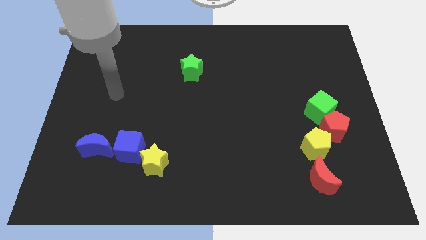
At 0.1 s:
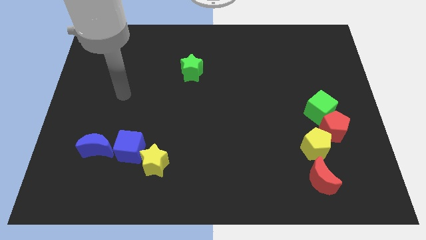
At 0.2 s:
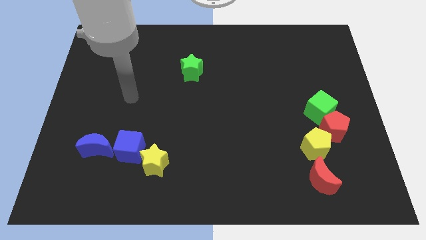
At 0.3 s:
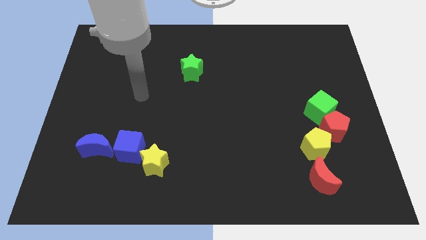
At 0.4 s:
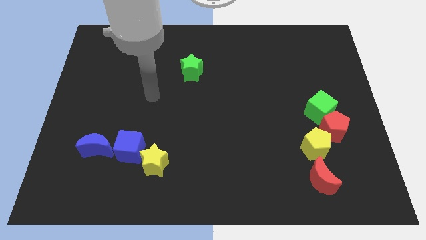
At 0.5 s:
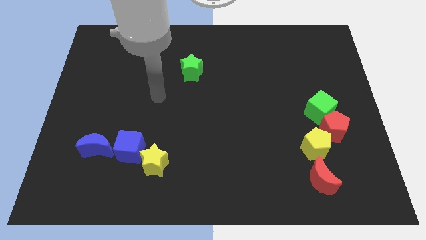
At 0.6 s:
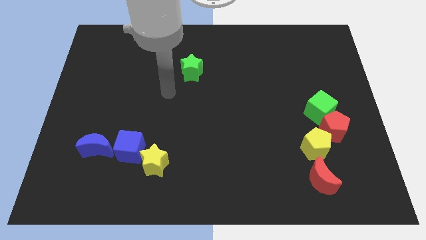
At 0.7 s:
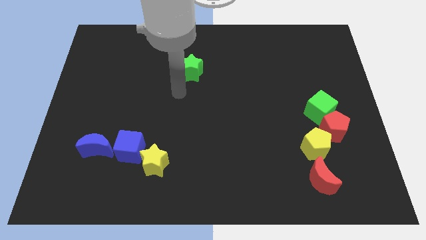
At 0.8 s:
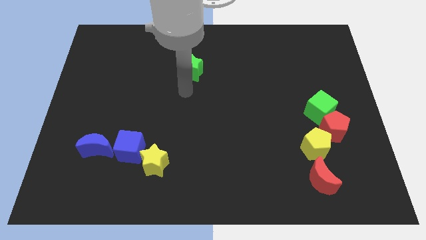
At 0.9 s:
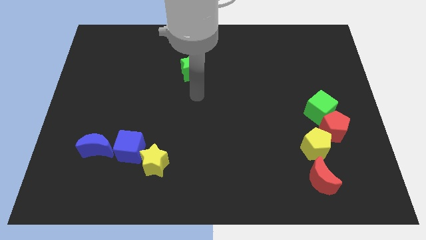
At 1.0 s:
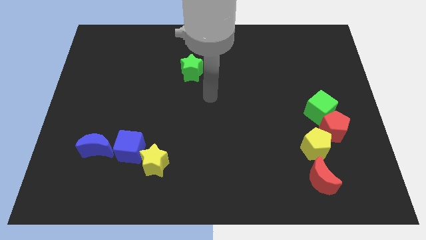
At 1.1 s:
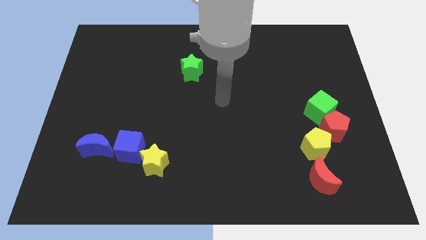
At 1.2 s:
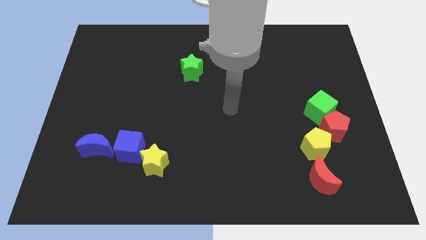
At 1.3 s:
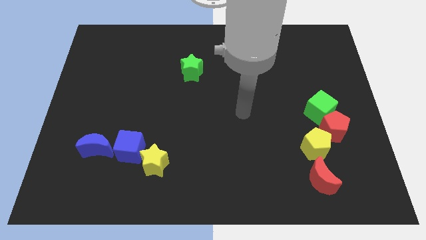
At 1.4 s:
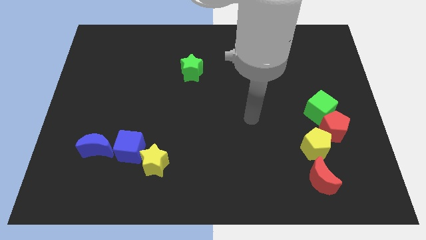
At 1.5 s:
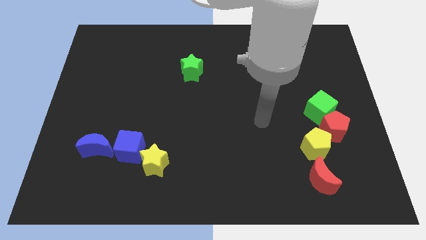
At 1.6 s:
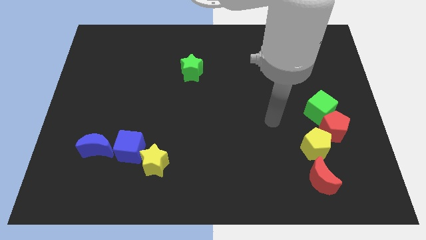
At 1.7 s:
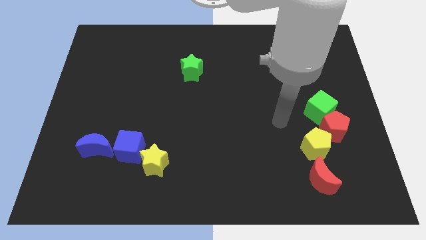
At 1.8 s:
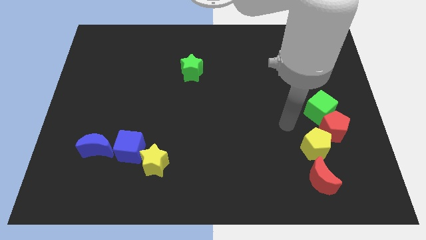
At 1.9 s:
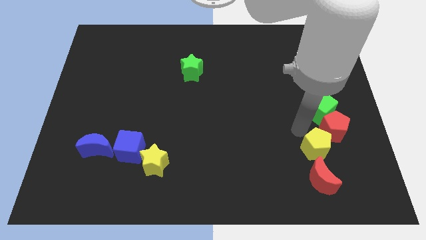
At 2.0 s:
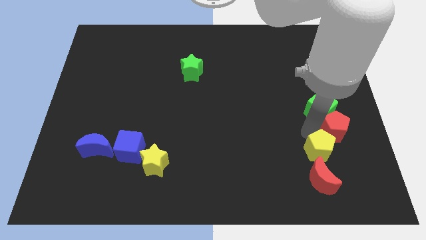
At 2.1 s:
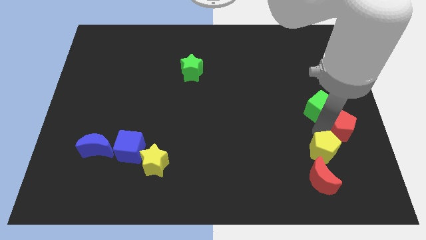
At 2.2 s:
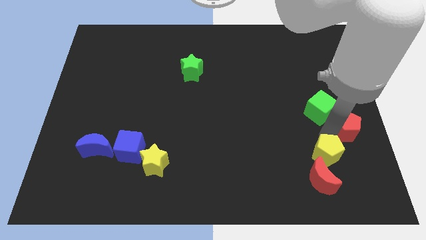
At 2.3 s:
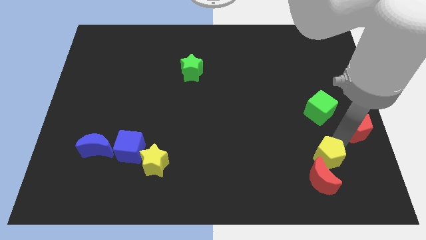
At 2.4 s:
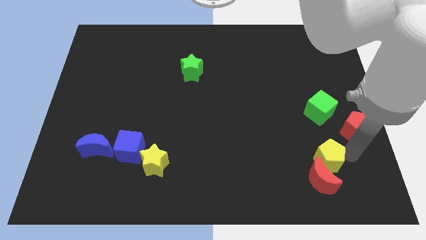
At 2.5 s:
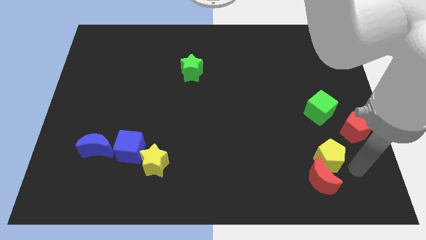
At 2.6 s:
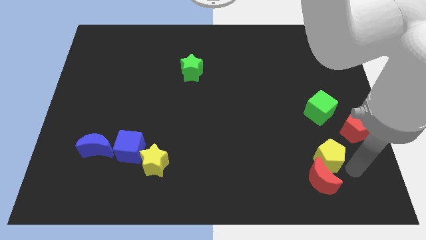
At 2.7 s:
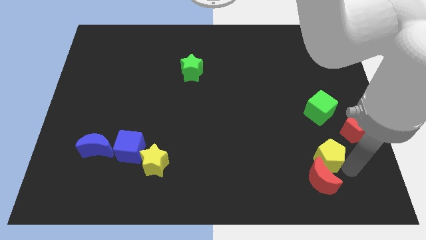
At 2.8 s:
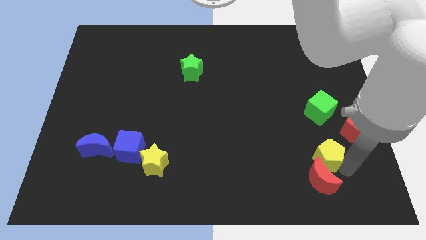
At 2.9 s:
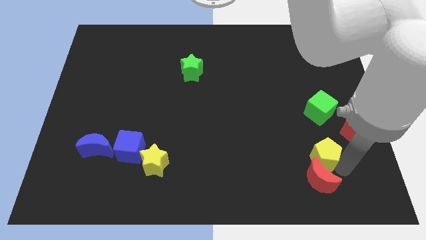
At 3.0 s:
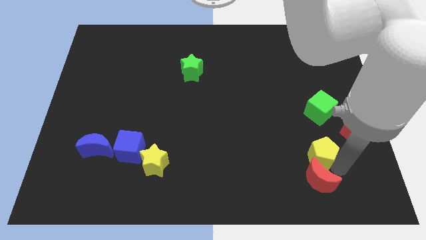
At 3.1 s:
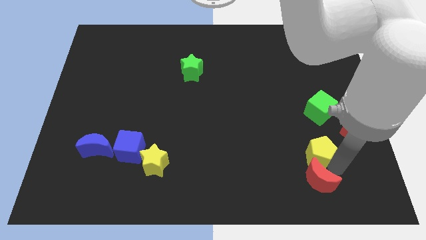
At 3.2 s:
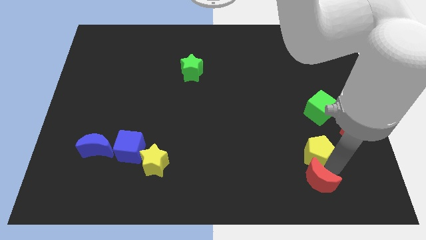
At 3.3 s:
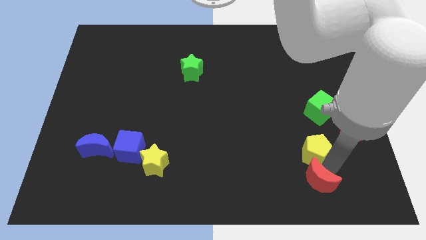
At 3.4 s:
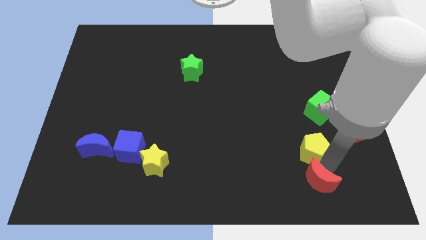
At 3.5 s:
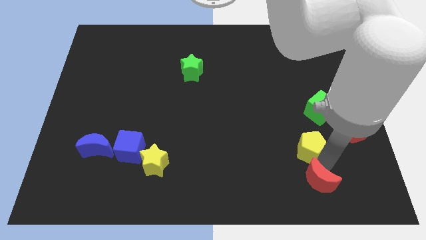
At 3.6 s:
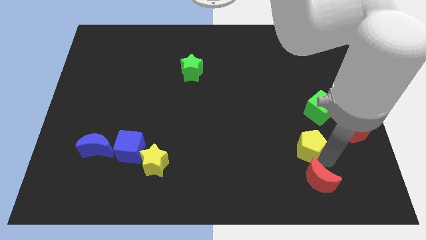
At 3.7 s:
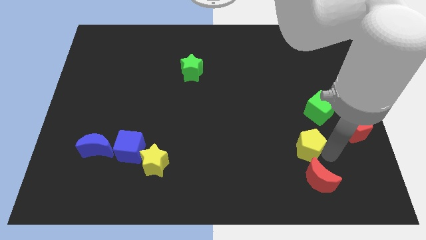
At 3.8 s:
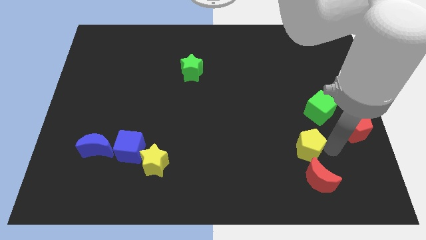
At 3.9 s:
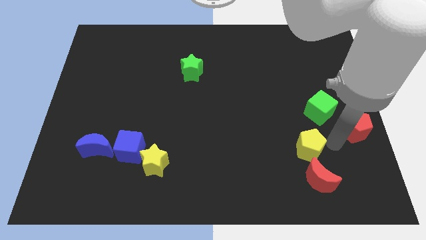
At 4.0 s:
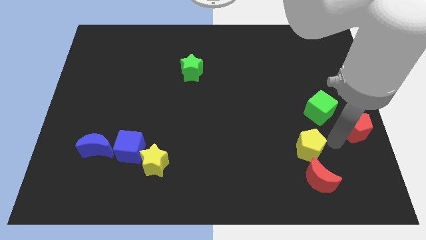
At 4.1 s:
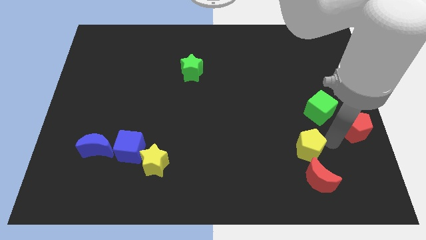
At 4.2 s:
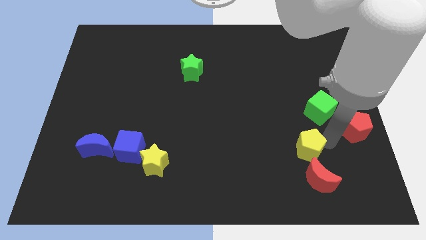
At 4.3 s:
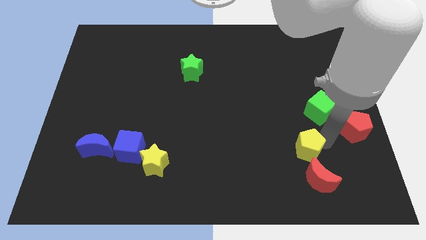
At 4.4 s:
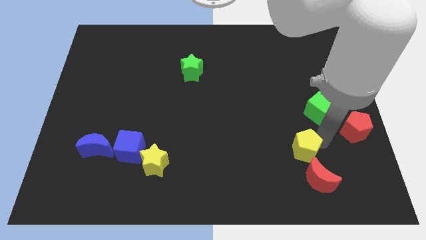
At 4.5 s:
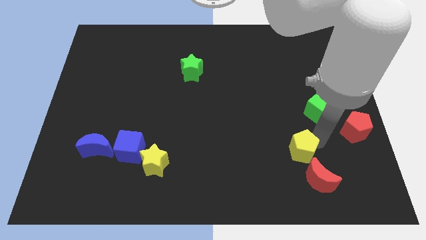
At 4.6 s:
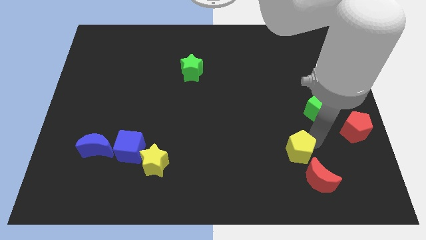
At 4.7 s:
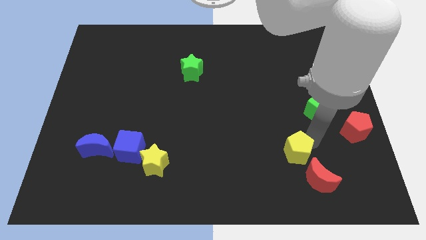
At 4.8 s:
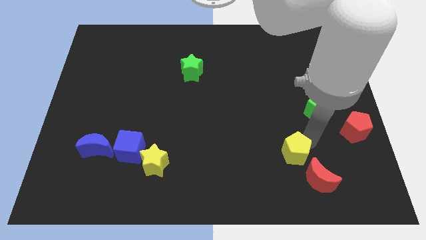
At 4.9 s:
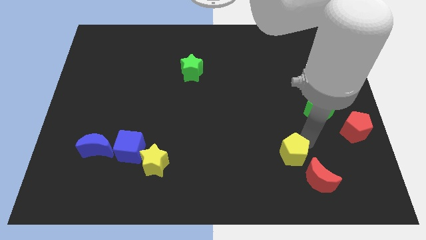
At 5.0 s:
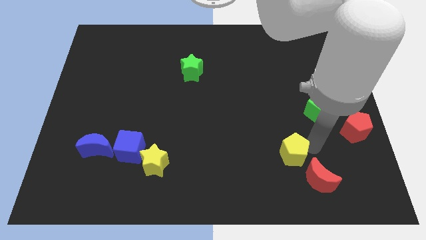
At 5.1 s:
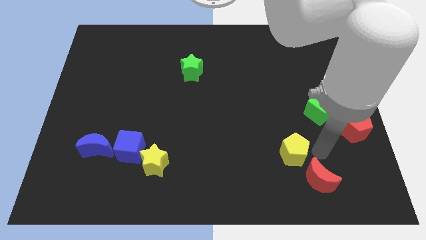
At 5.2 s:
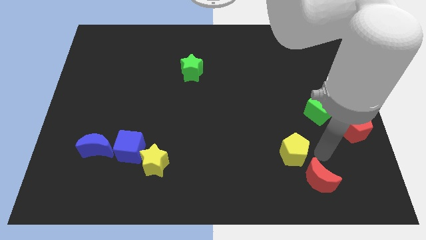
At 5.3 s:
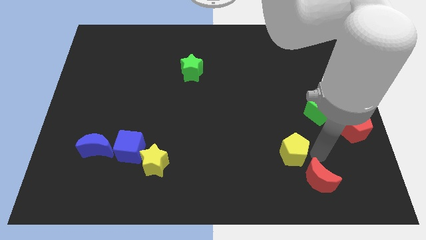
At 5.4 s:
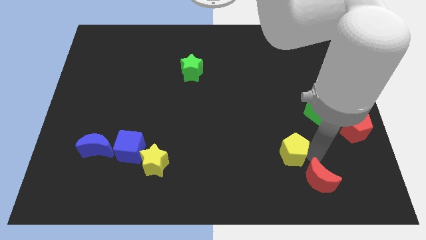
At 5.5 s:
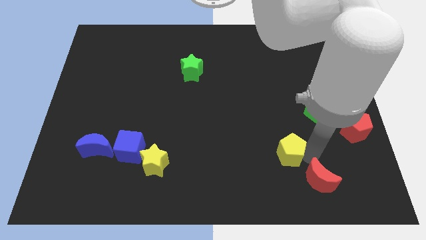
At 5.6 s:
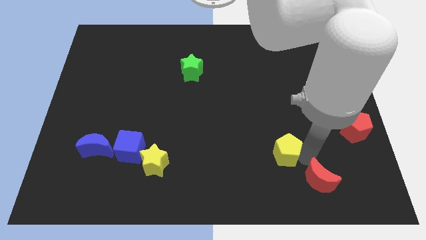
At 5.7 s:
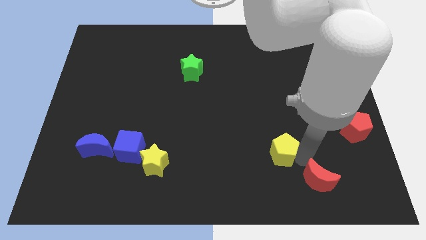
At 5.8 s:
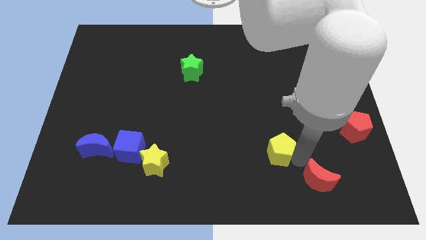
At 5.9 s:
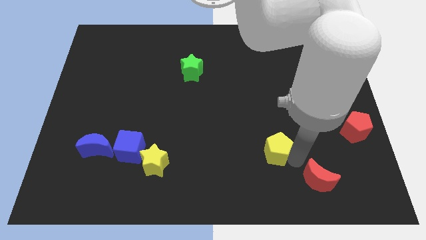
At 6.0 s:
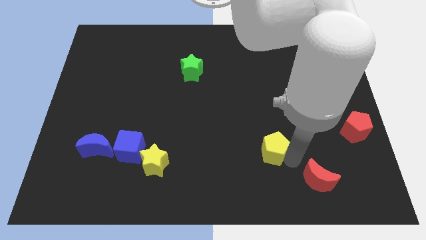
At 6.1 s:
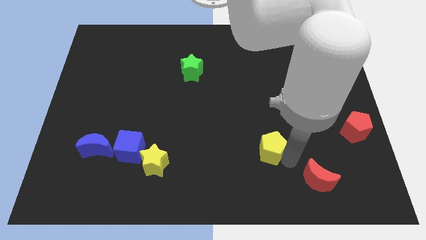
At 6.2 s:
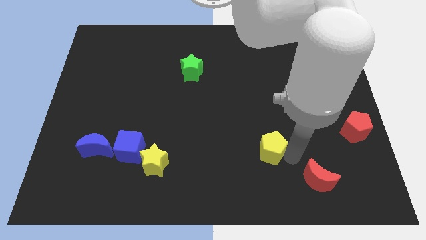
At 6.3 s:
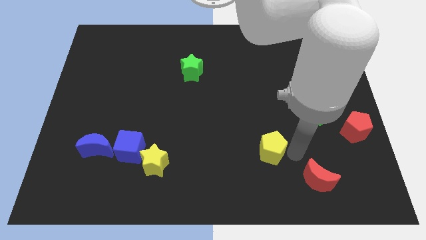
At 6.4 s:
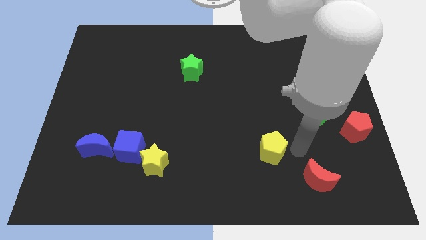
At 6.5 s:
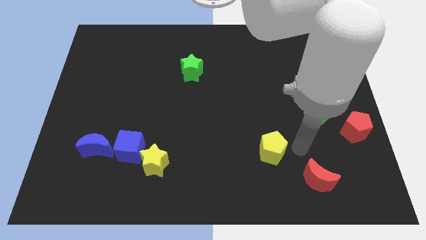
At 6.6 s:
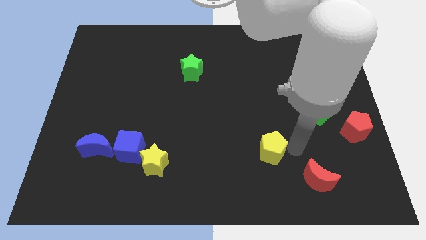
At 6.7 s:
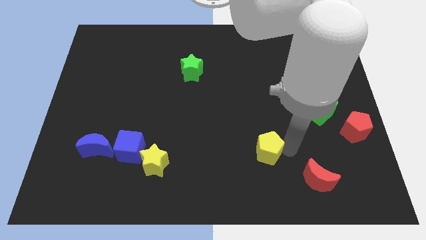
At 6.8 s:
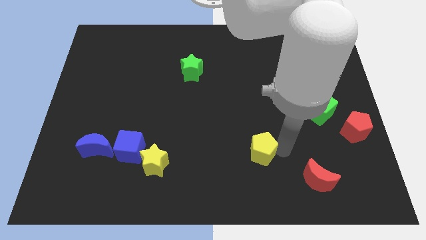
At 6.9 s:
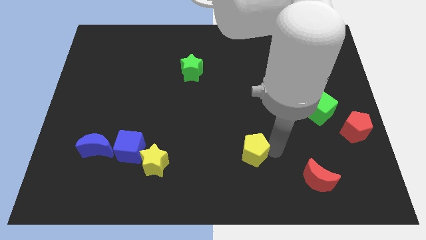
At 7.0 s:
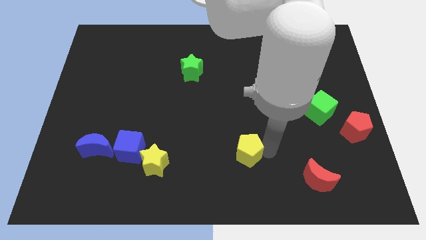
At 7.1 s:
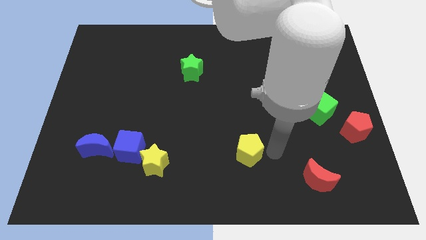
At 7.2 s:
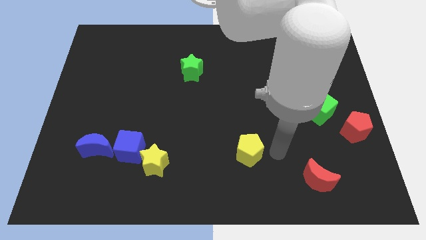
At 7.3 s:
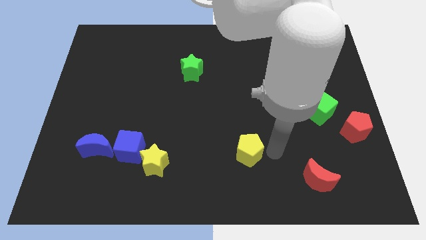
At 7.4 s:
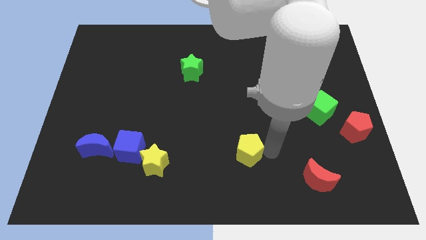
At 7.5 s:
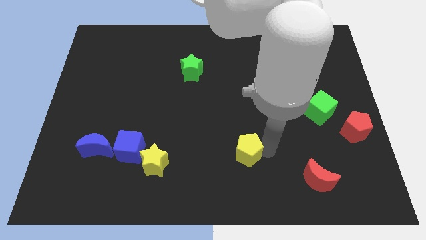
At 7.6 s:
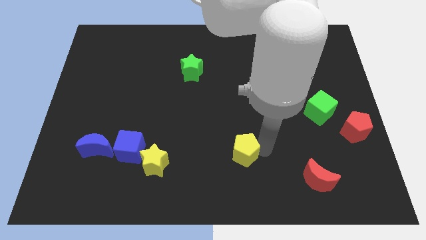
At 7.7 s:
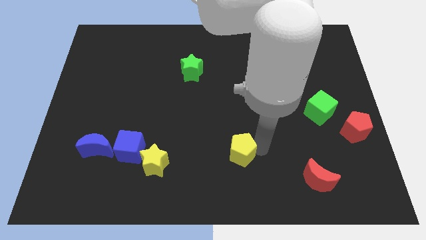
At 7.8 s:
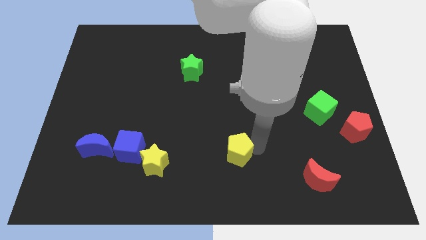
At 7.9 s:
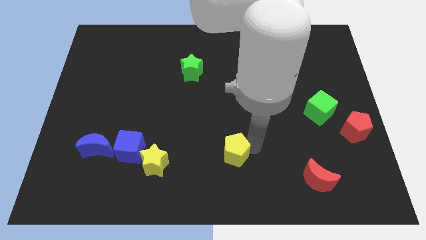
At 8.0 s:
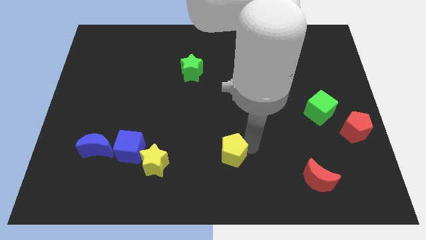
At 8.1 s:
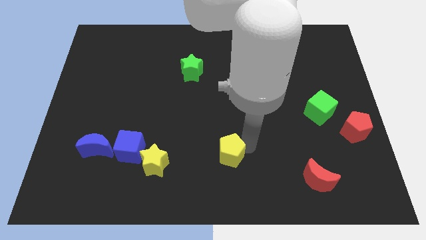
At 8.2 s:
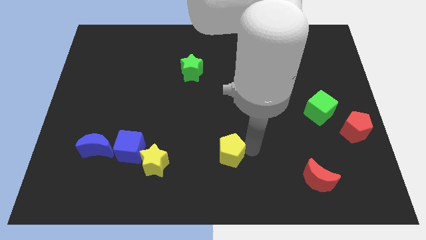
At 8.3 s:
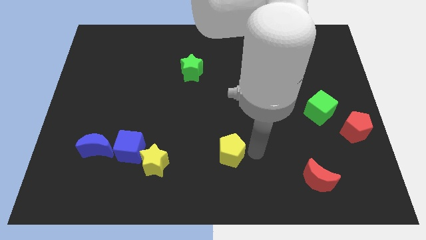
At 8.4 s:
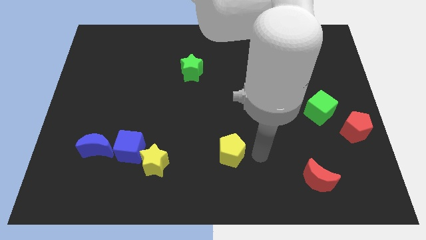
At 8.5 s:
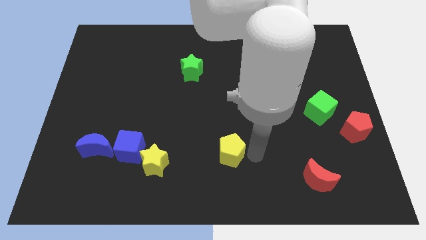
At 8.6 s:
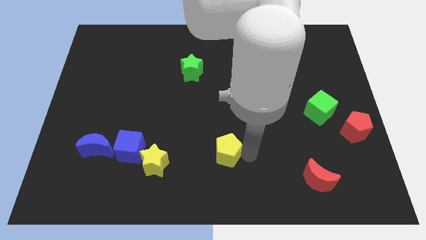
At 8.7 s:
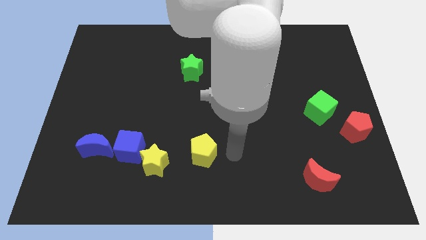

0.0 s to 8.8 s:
slide the yellow pentagon to the left
